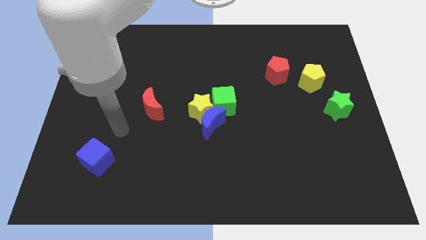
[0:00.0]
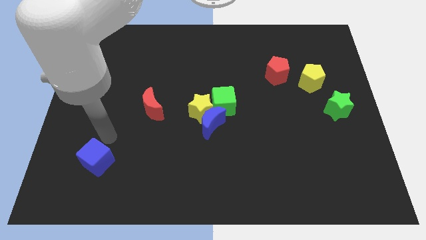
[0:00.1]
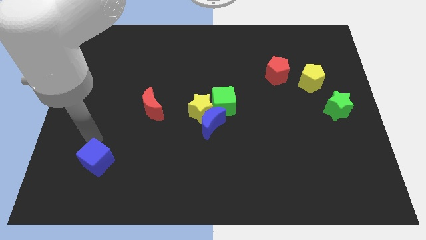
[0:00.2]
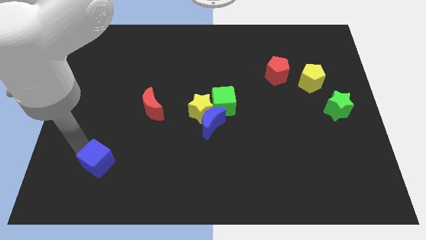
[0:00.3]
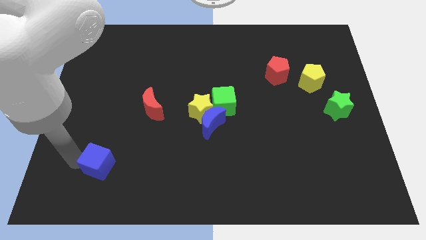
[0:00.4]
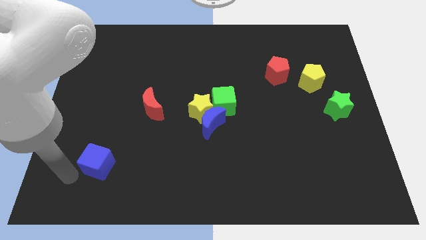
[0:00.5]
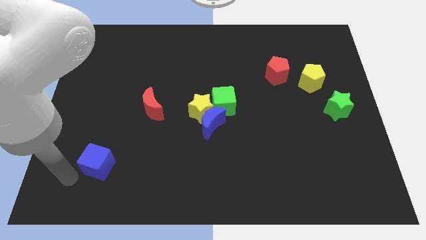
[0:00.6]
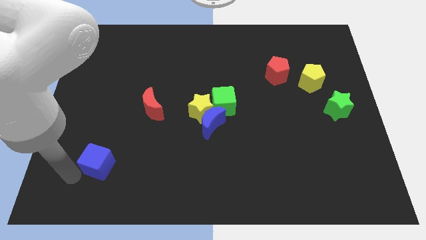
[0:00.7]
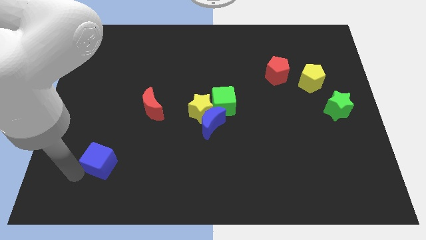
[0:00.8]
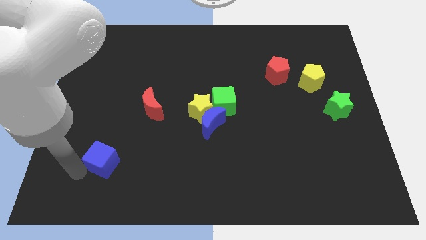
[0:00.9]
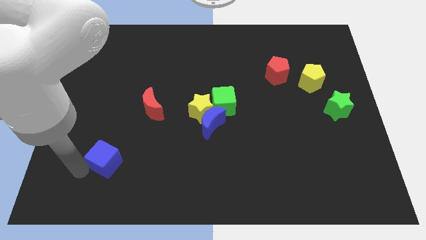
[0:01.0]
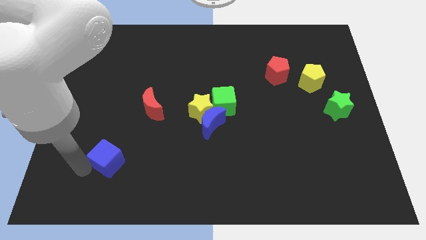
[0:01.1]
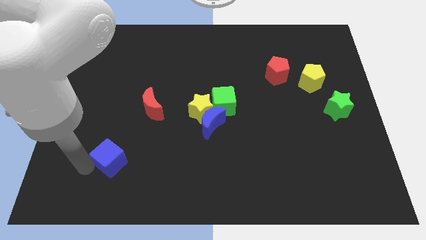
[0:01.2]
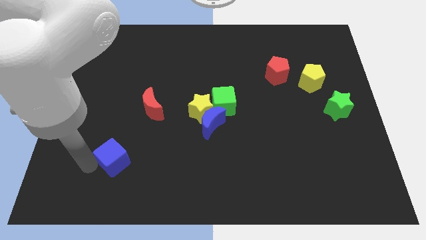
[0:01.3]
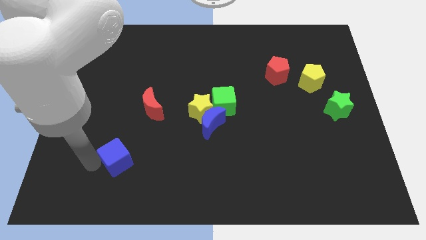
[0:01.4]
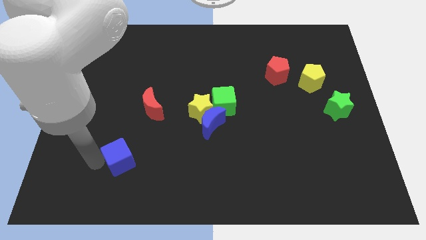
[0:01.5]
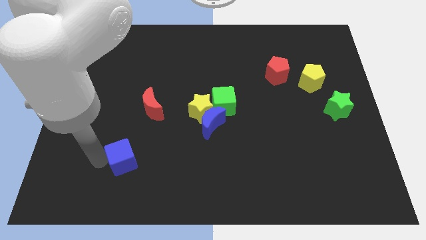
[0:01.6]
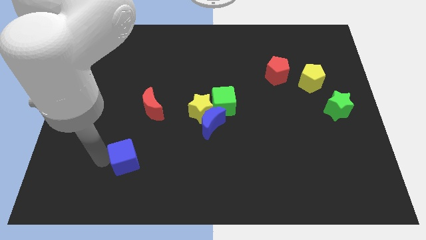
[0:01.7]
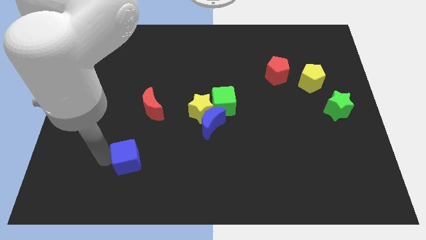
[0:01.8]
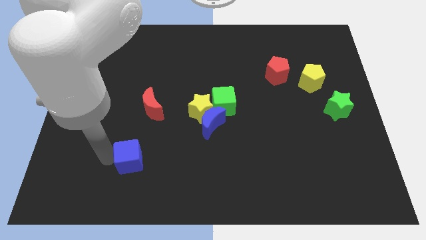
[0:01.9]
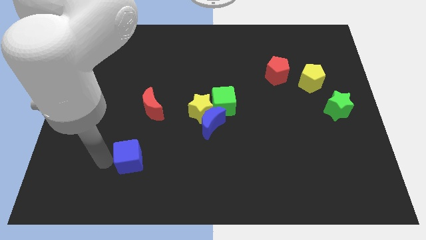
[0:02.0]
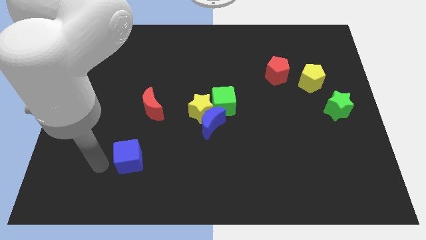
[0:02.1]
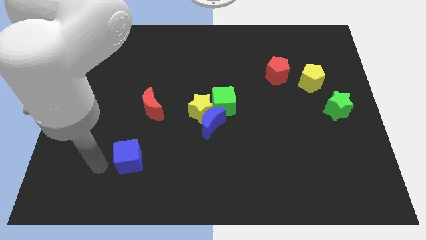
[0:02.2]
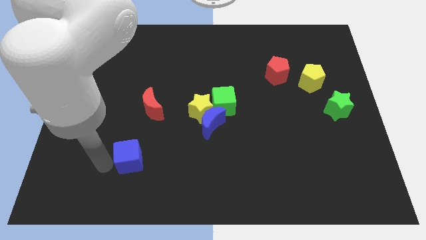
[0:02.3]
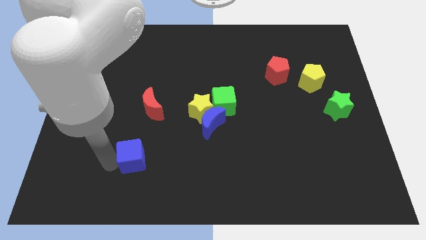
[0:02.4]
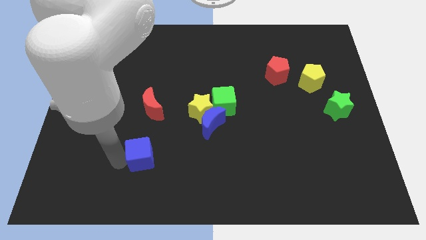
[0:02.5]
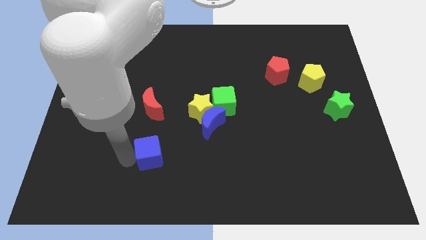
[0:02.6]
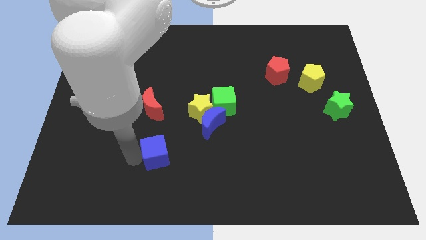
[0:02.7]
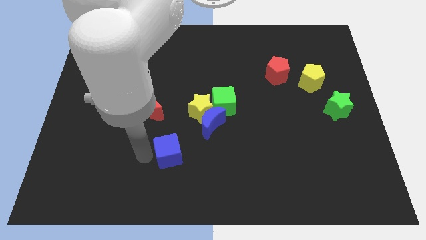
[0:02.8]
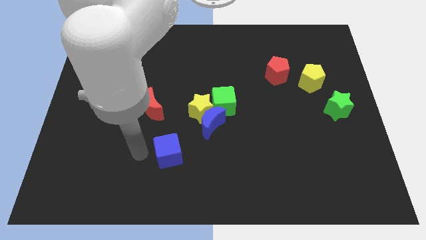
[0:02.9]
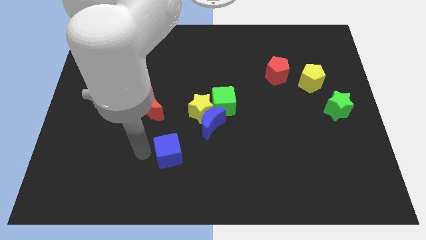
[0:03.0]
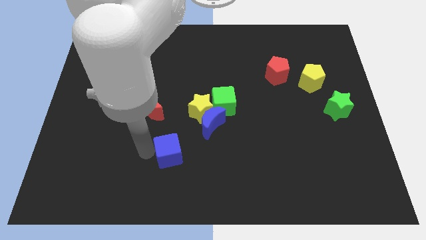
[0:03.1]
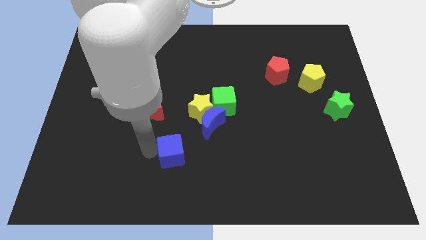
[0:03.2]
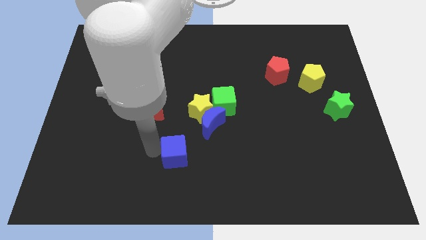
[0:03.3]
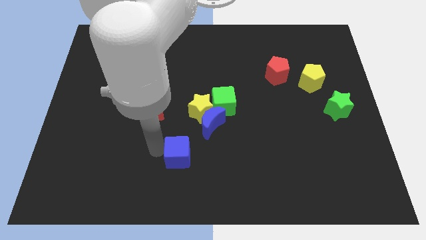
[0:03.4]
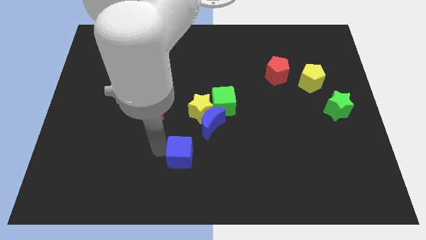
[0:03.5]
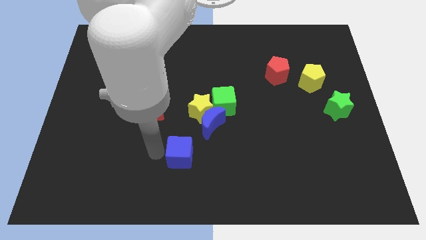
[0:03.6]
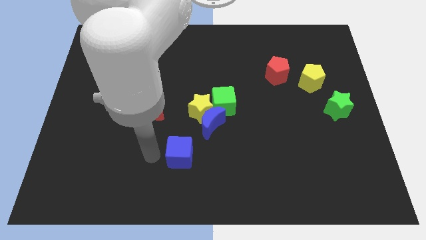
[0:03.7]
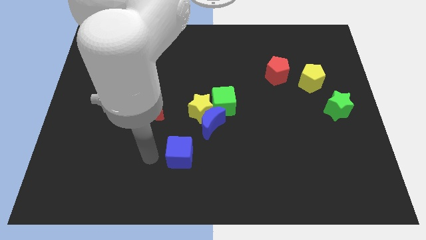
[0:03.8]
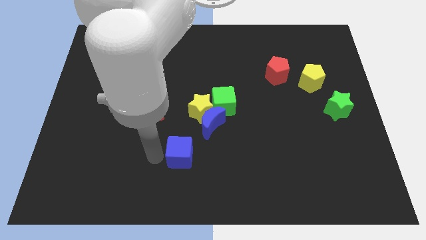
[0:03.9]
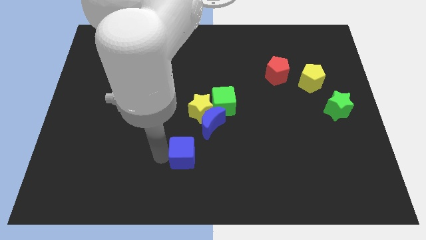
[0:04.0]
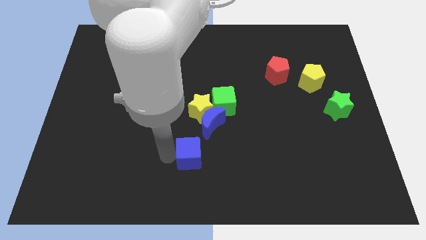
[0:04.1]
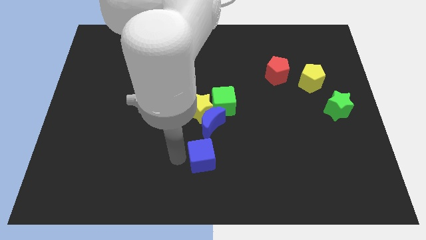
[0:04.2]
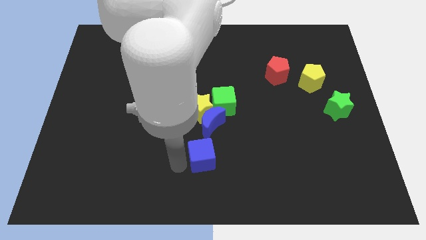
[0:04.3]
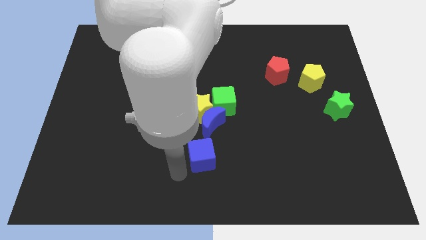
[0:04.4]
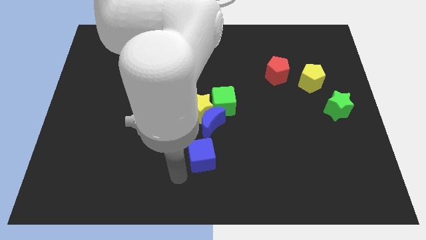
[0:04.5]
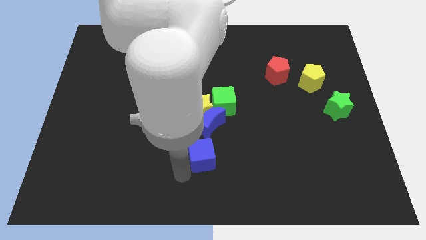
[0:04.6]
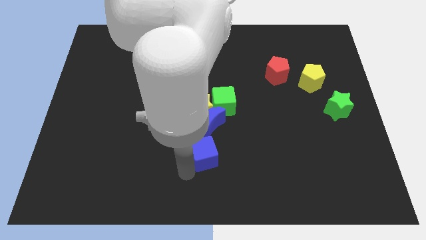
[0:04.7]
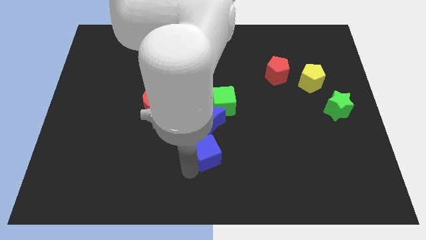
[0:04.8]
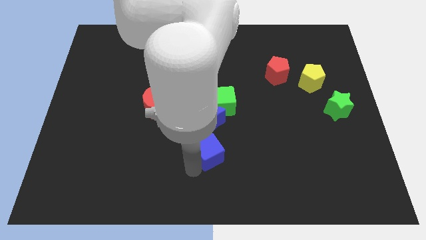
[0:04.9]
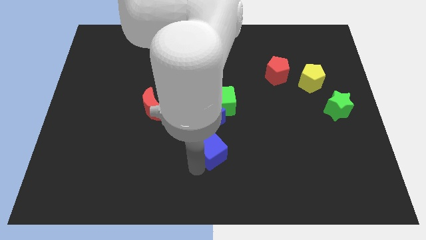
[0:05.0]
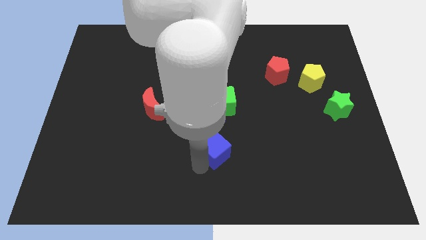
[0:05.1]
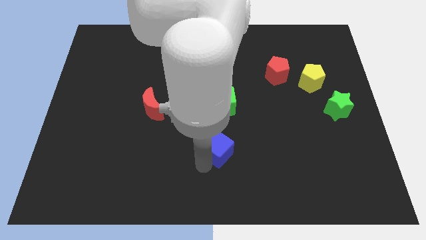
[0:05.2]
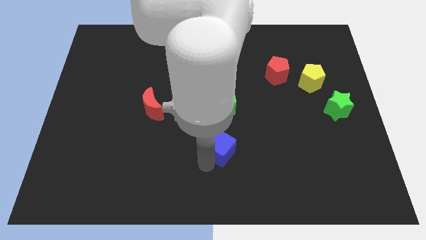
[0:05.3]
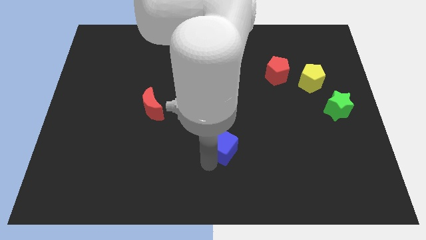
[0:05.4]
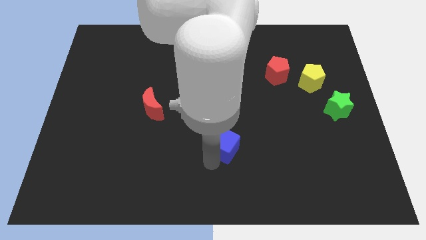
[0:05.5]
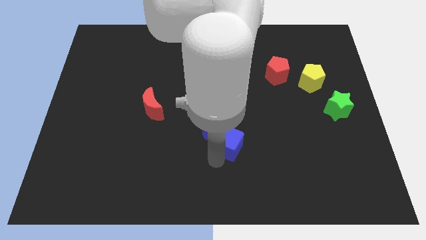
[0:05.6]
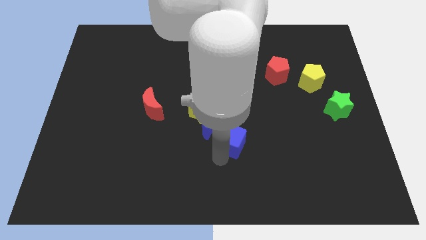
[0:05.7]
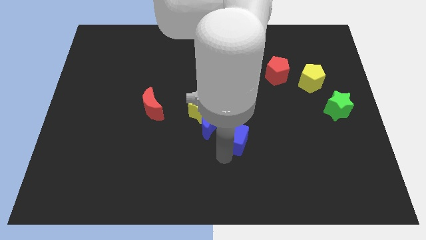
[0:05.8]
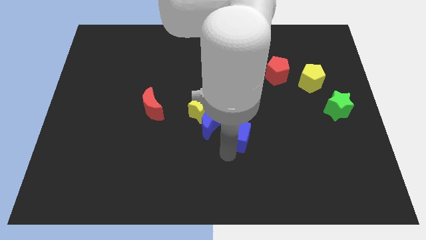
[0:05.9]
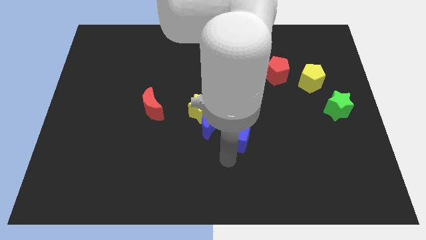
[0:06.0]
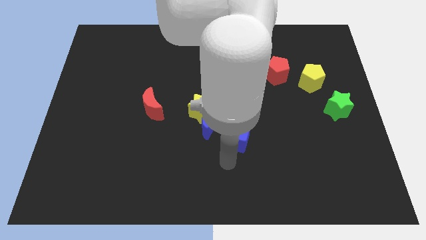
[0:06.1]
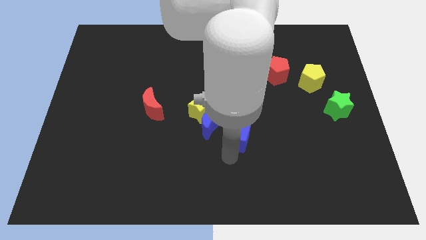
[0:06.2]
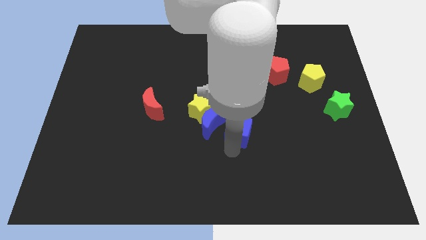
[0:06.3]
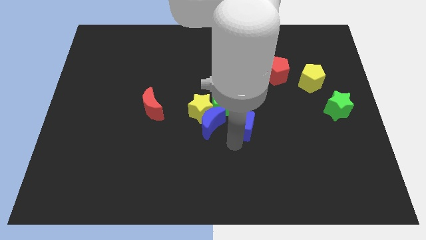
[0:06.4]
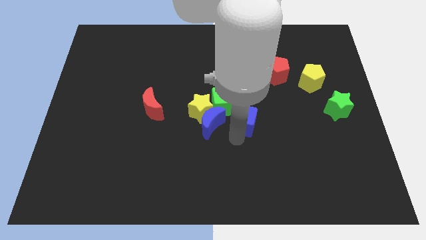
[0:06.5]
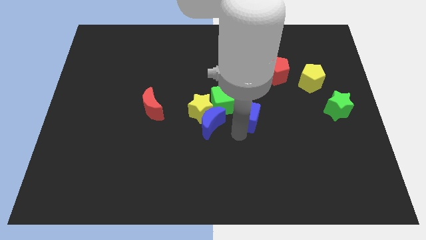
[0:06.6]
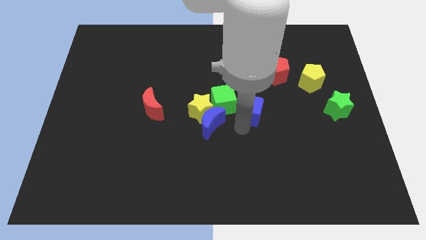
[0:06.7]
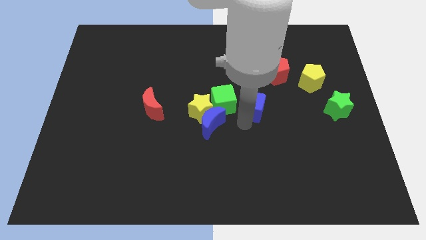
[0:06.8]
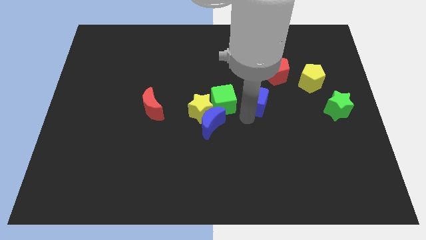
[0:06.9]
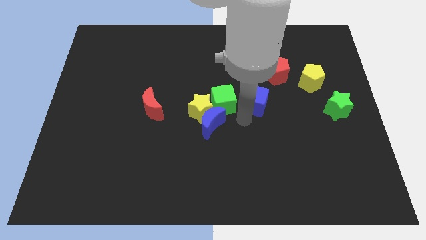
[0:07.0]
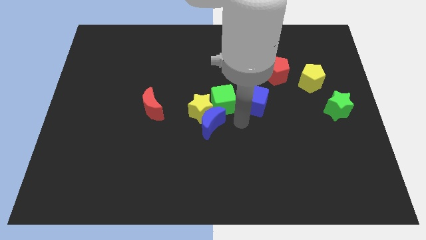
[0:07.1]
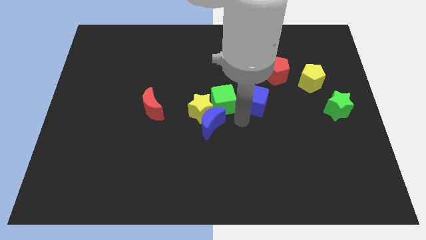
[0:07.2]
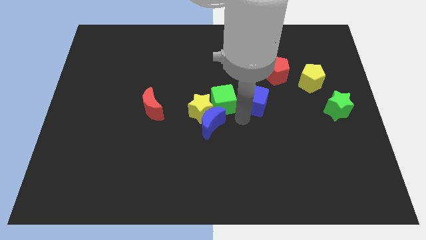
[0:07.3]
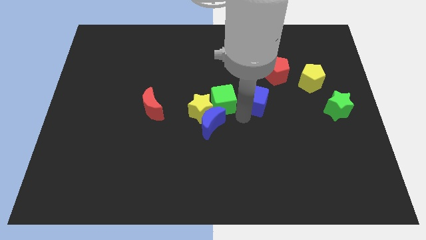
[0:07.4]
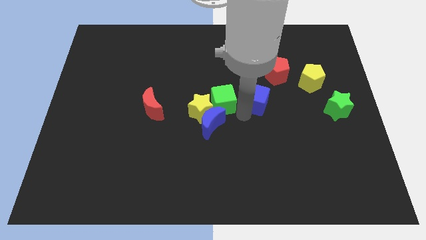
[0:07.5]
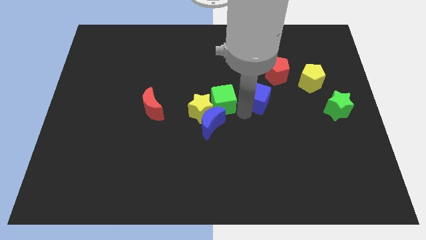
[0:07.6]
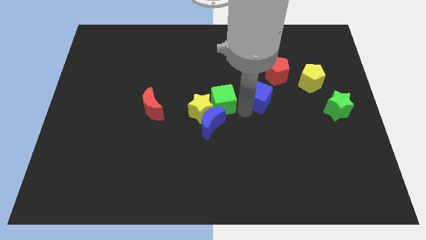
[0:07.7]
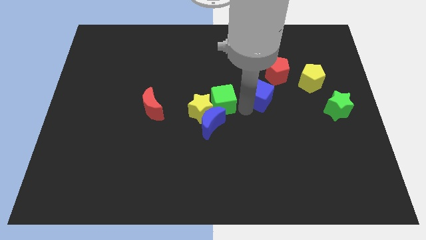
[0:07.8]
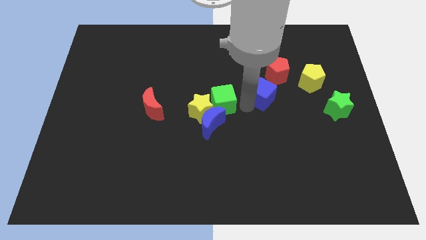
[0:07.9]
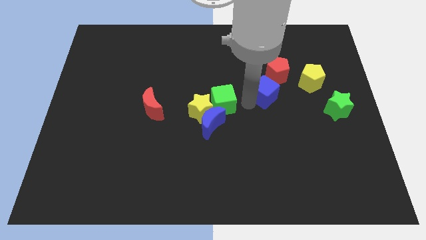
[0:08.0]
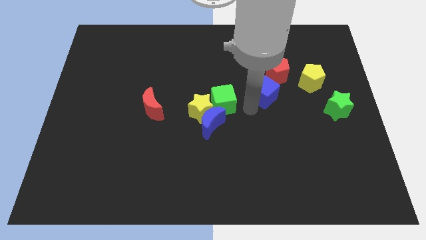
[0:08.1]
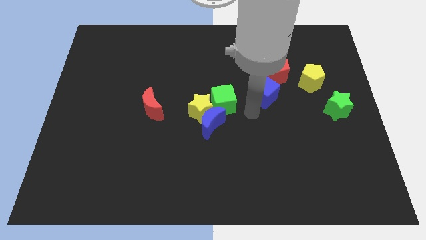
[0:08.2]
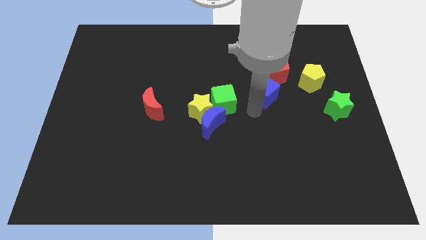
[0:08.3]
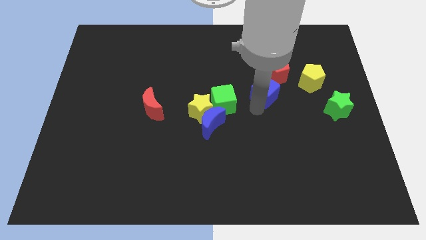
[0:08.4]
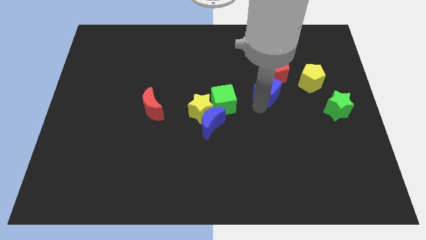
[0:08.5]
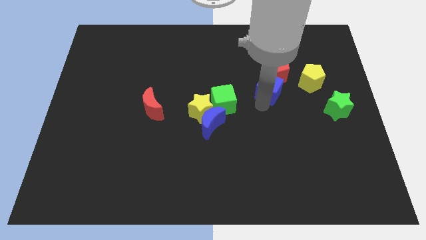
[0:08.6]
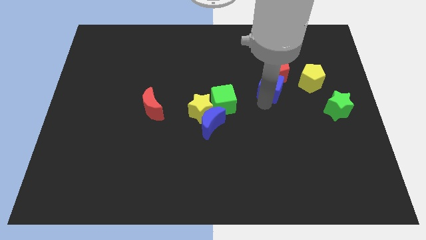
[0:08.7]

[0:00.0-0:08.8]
move the blue cube to the red pentagon
